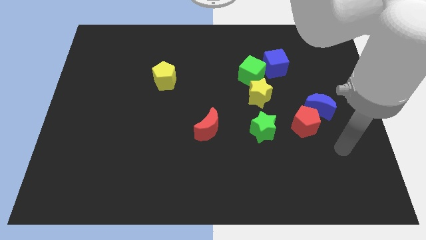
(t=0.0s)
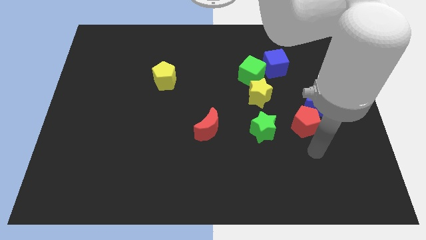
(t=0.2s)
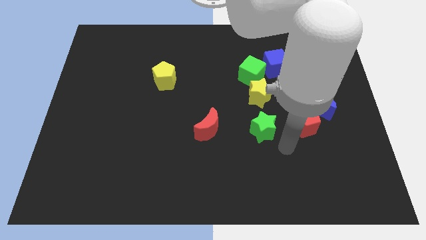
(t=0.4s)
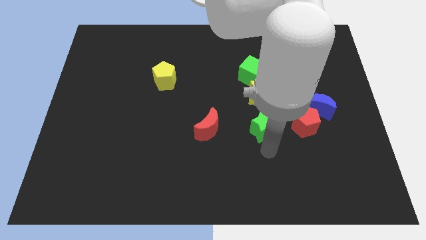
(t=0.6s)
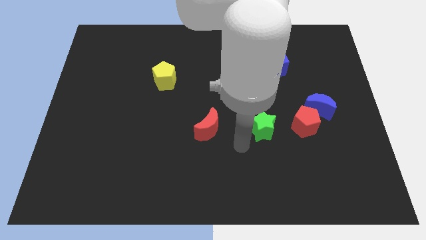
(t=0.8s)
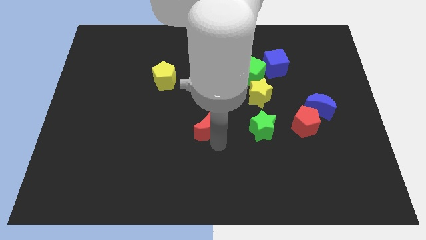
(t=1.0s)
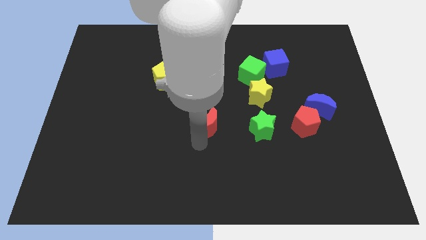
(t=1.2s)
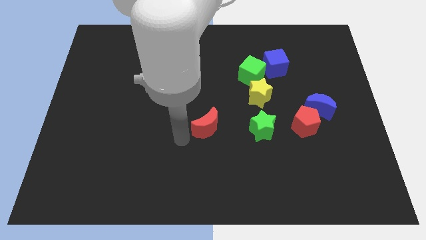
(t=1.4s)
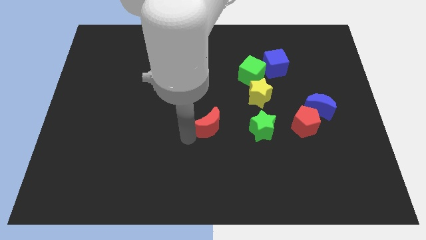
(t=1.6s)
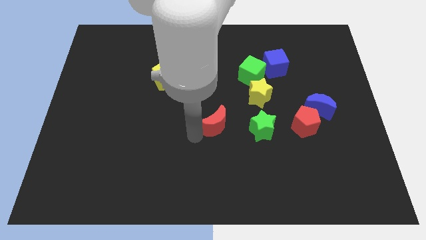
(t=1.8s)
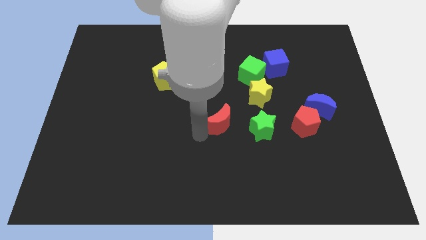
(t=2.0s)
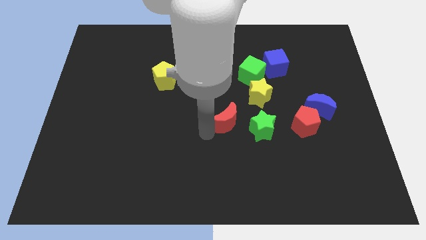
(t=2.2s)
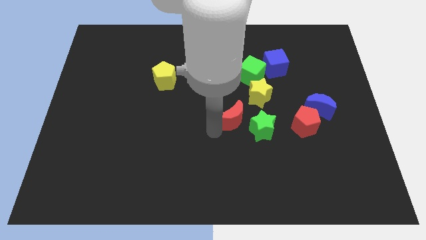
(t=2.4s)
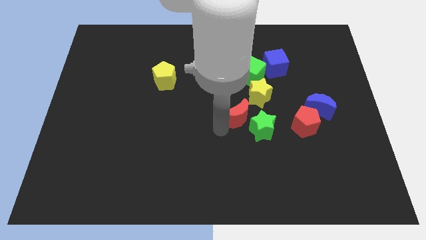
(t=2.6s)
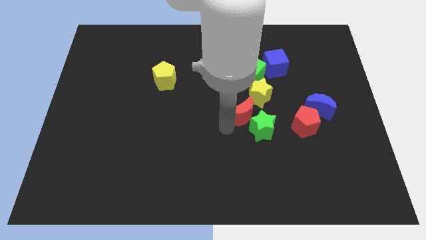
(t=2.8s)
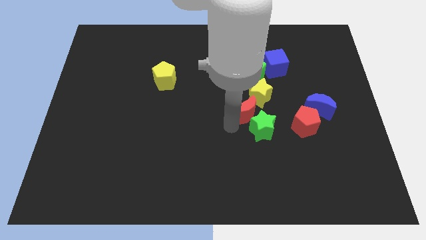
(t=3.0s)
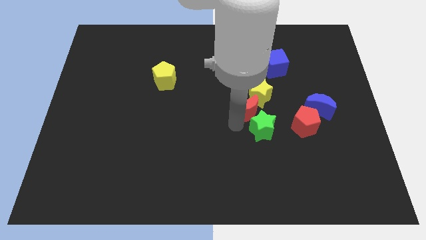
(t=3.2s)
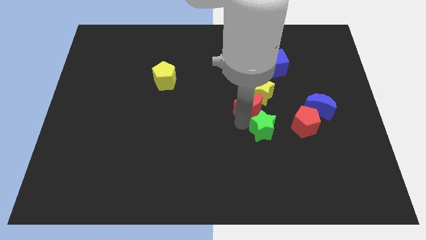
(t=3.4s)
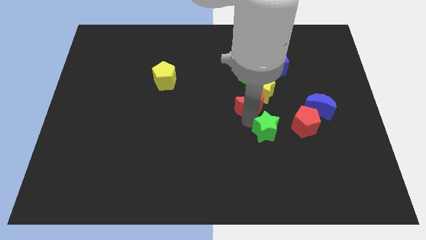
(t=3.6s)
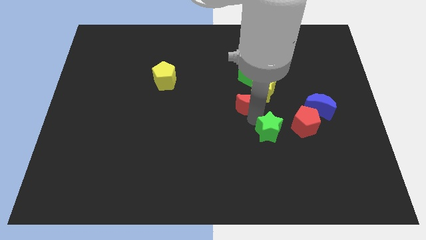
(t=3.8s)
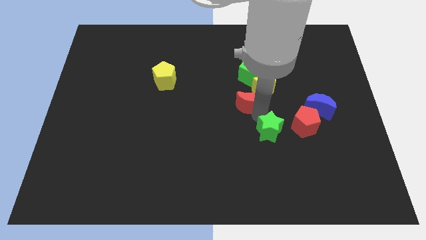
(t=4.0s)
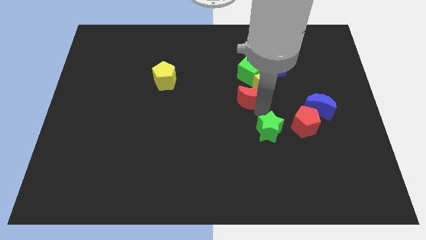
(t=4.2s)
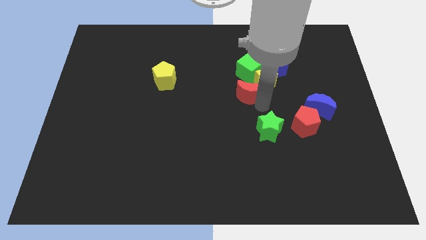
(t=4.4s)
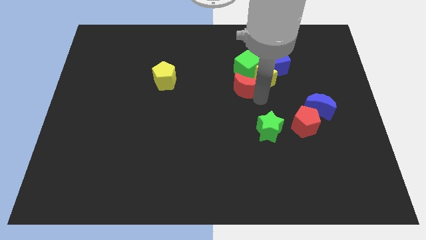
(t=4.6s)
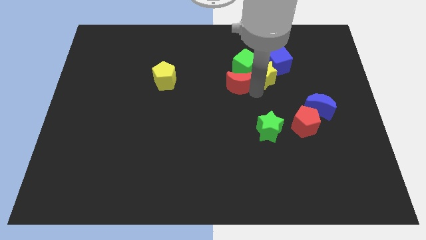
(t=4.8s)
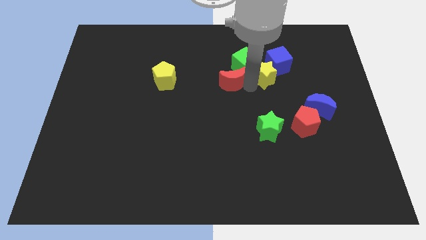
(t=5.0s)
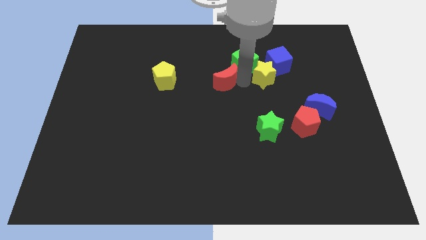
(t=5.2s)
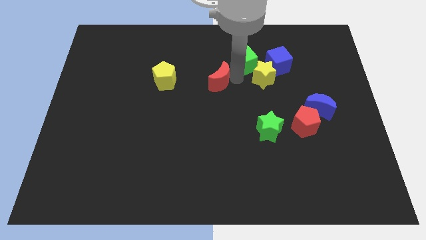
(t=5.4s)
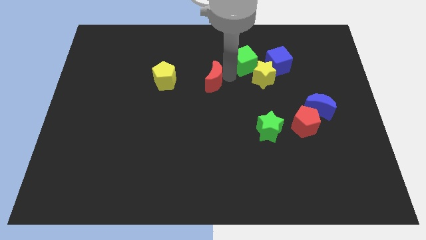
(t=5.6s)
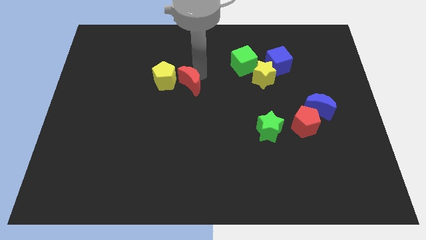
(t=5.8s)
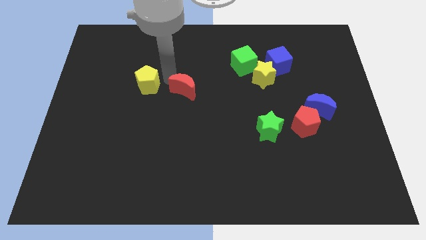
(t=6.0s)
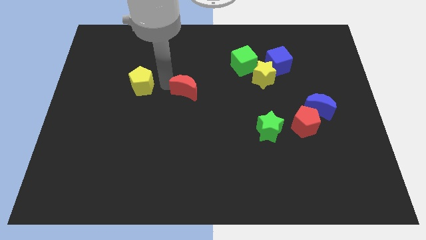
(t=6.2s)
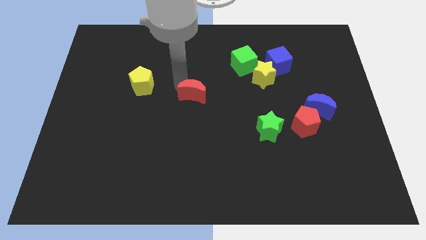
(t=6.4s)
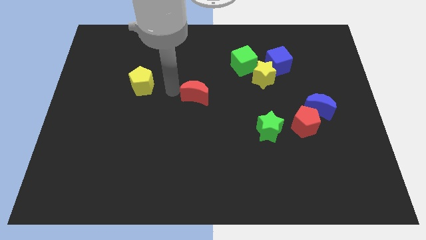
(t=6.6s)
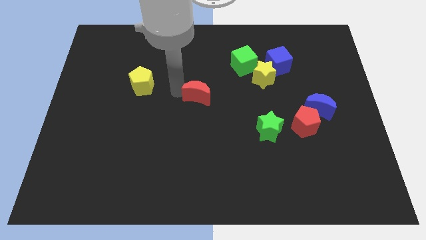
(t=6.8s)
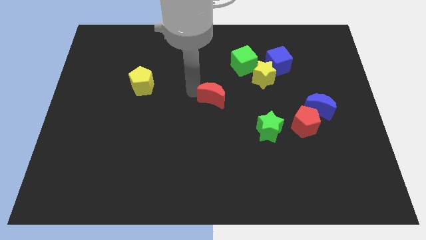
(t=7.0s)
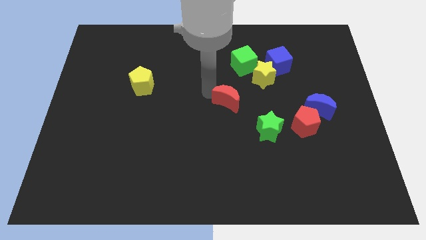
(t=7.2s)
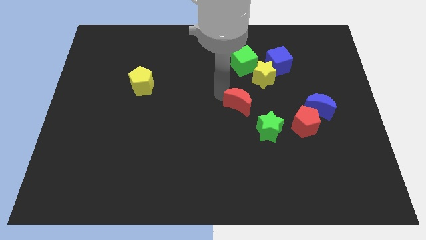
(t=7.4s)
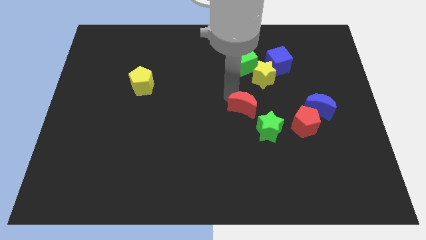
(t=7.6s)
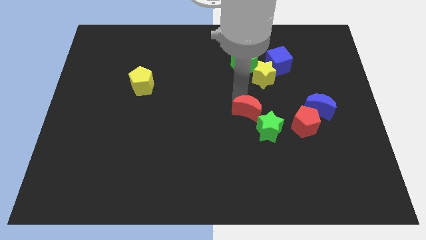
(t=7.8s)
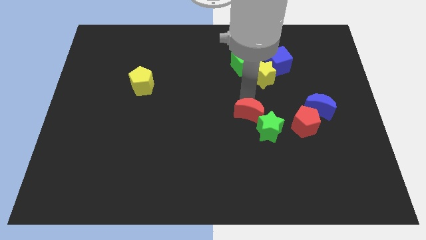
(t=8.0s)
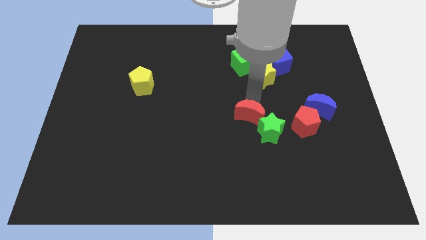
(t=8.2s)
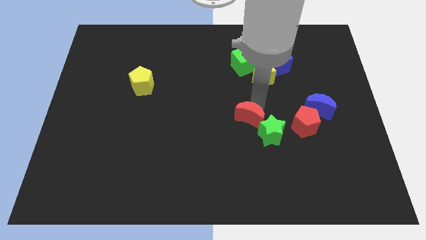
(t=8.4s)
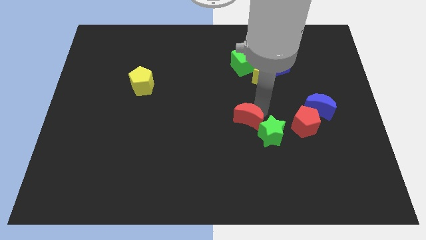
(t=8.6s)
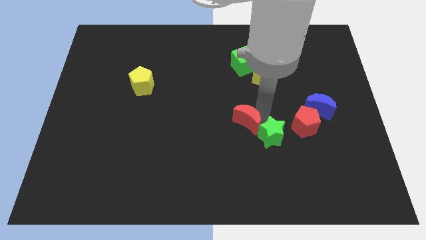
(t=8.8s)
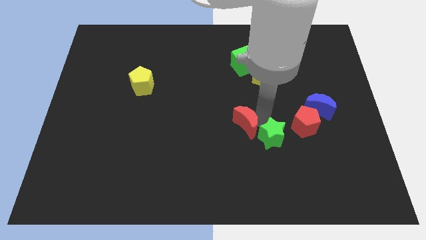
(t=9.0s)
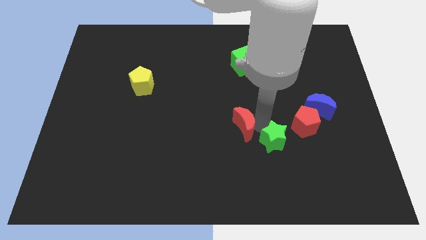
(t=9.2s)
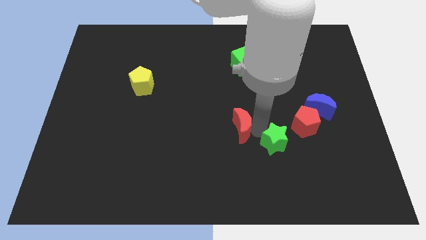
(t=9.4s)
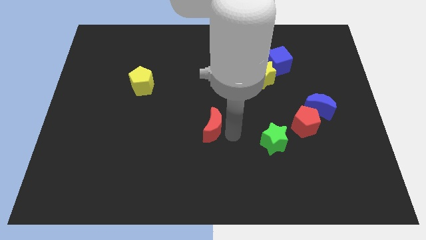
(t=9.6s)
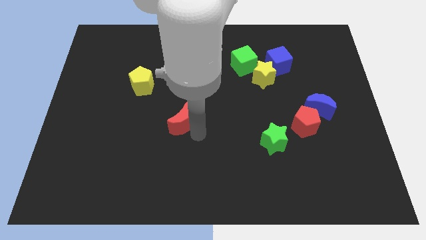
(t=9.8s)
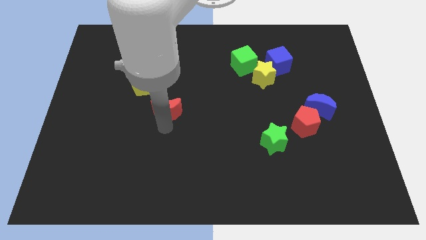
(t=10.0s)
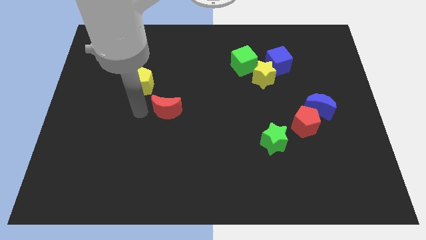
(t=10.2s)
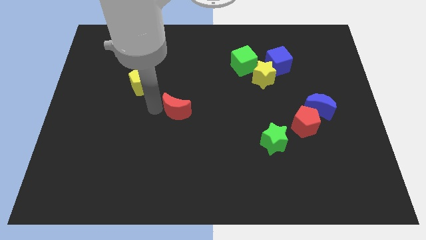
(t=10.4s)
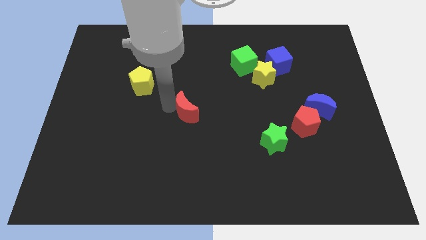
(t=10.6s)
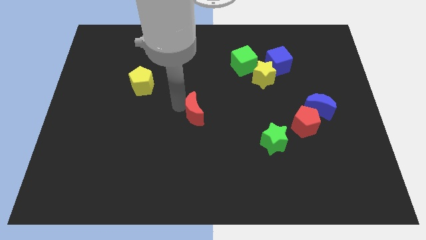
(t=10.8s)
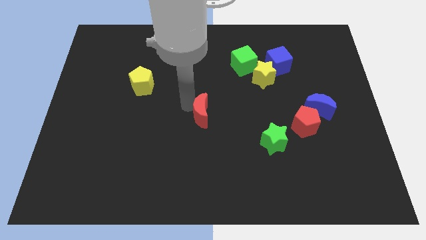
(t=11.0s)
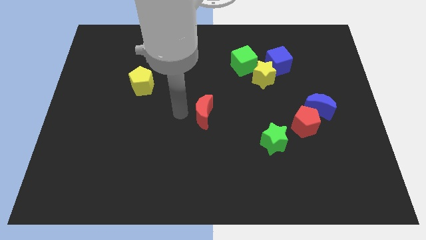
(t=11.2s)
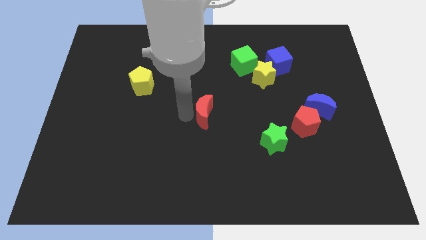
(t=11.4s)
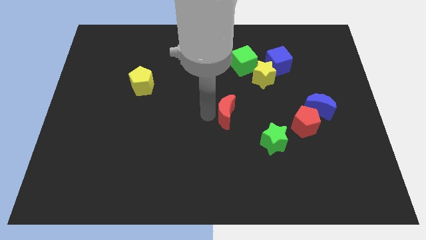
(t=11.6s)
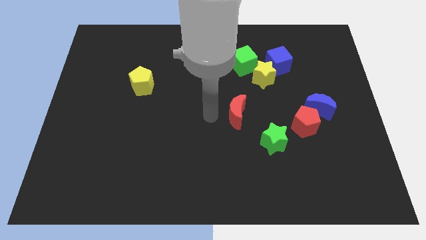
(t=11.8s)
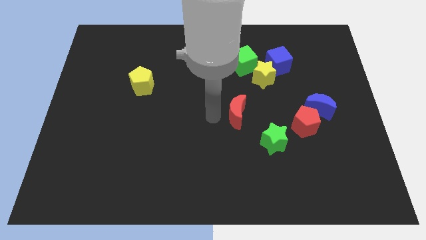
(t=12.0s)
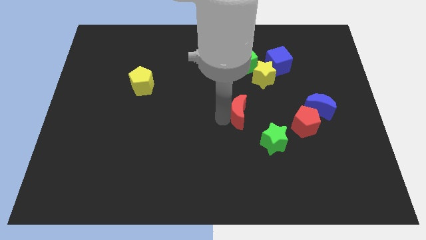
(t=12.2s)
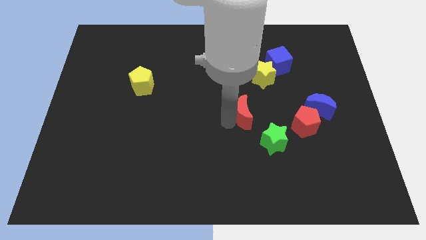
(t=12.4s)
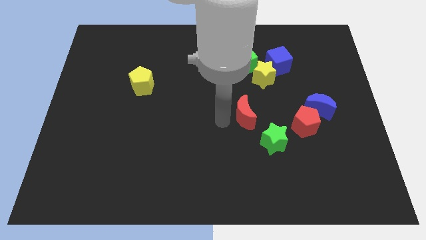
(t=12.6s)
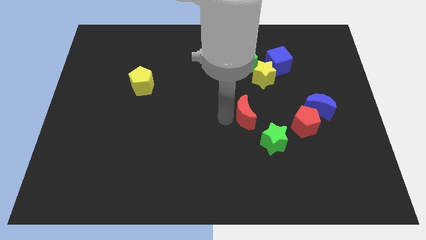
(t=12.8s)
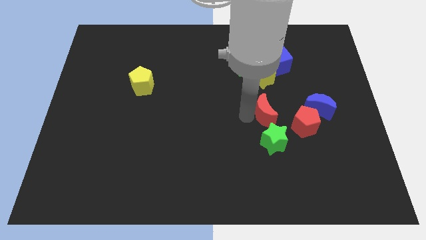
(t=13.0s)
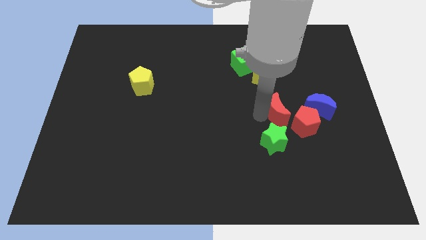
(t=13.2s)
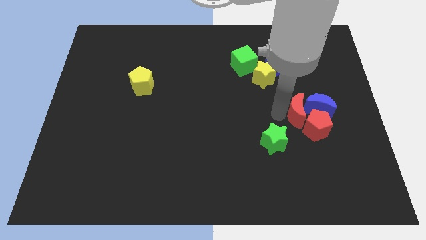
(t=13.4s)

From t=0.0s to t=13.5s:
move the red moon next to the blue moon
